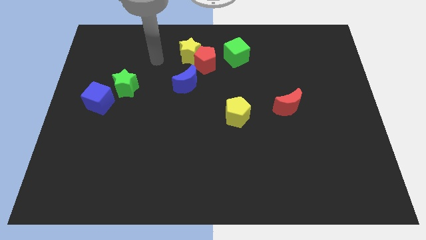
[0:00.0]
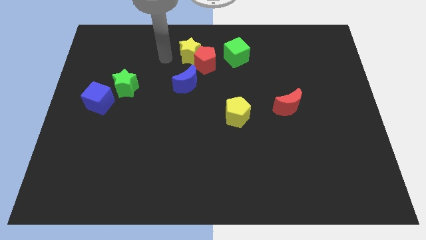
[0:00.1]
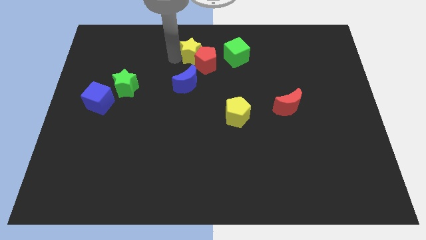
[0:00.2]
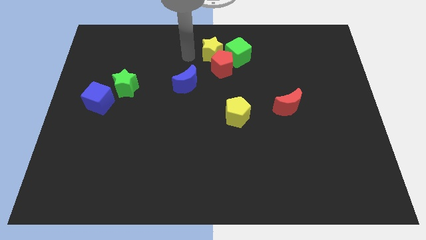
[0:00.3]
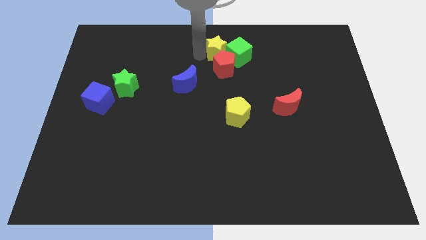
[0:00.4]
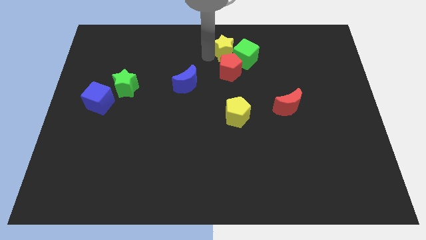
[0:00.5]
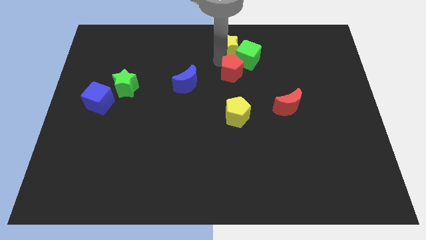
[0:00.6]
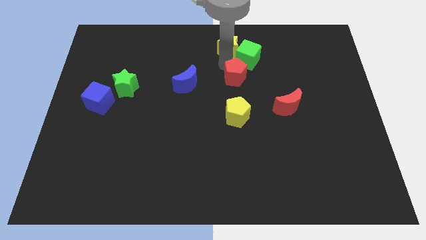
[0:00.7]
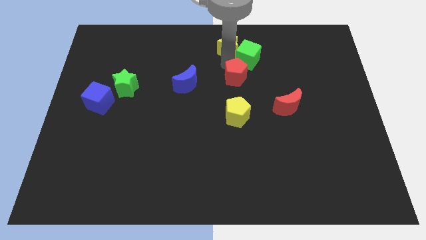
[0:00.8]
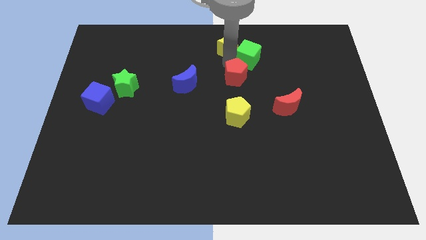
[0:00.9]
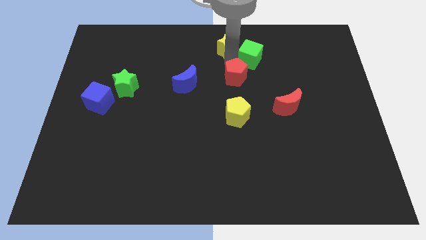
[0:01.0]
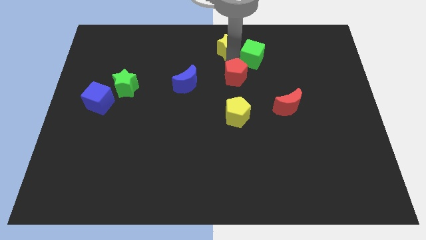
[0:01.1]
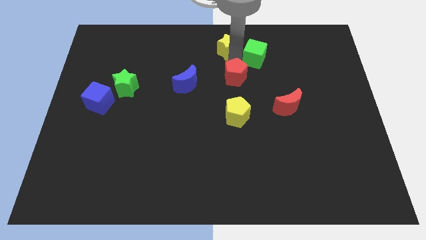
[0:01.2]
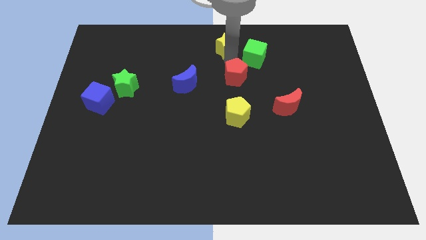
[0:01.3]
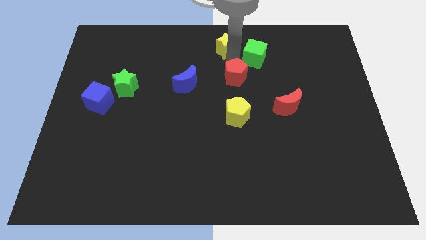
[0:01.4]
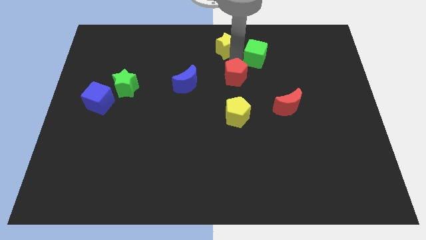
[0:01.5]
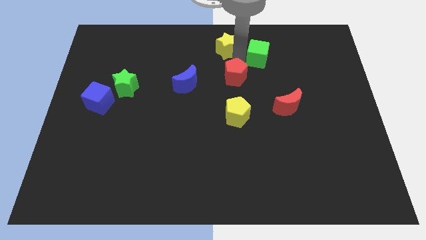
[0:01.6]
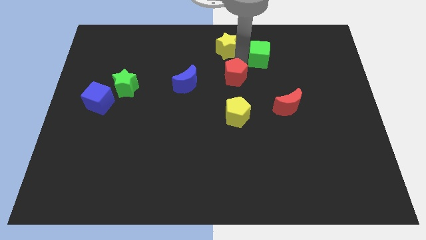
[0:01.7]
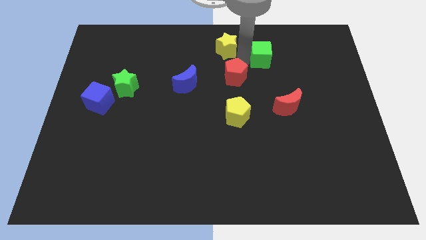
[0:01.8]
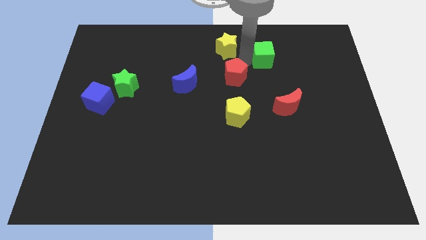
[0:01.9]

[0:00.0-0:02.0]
push the green cube slightly to the right

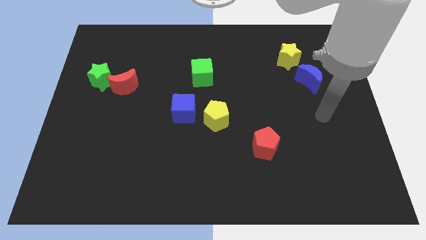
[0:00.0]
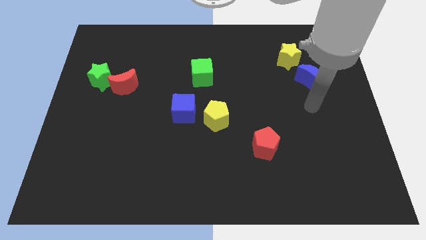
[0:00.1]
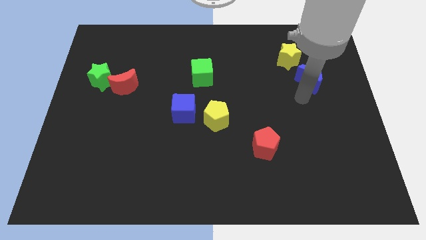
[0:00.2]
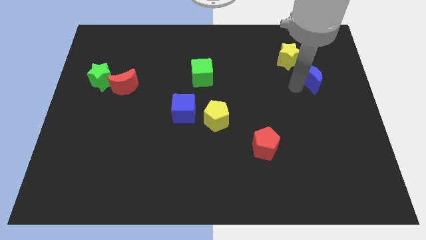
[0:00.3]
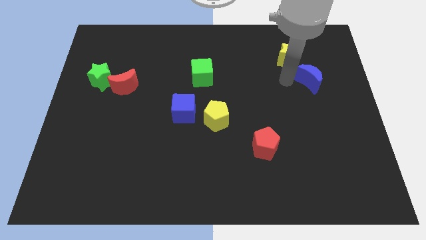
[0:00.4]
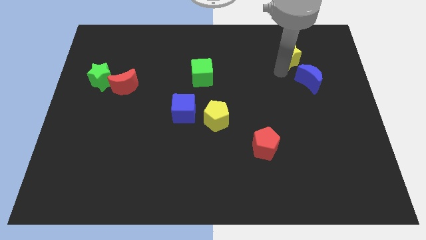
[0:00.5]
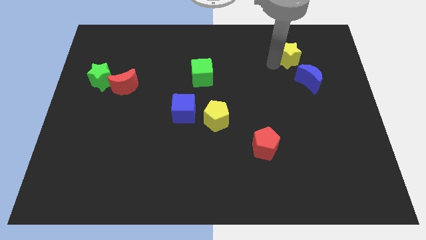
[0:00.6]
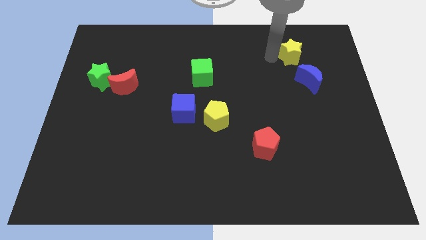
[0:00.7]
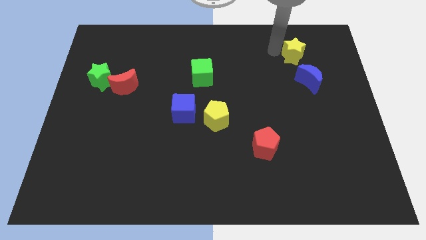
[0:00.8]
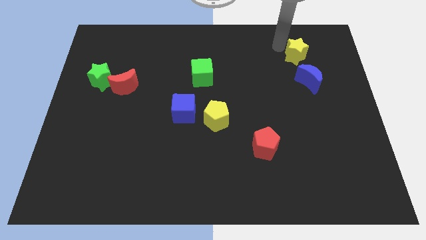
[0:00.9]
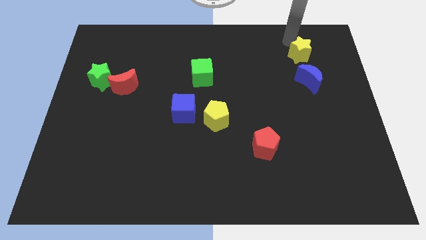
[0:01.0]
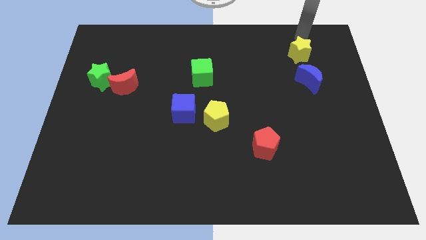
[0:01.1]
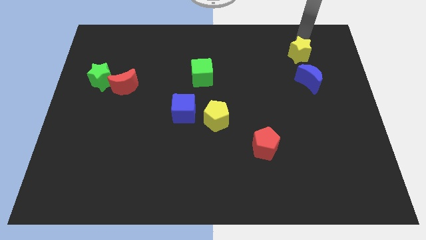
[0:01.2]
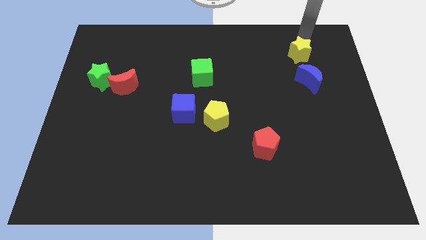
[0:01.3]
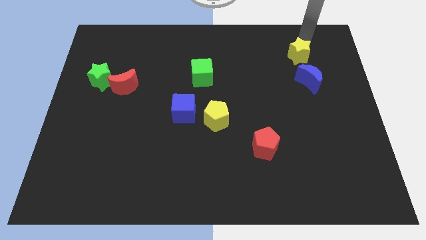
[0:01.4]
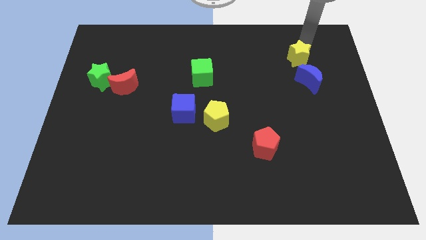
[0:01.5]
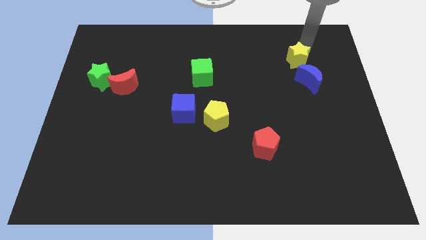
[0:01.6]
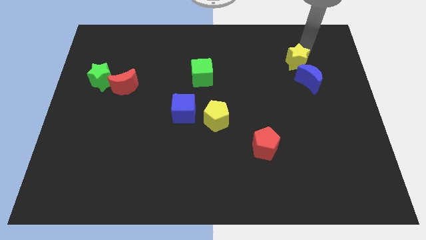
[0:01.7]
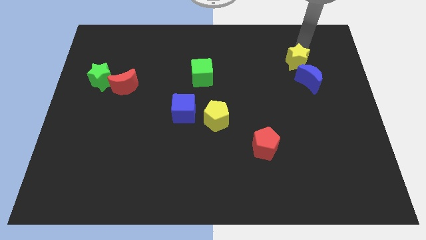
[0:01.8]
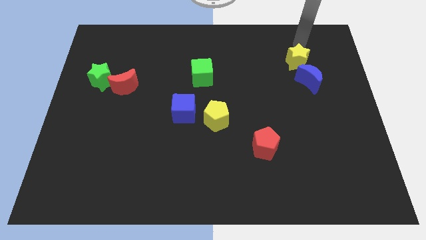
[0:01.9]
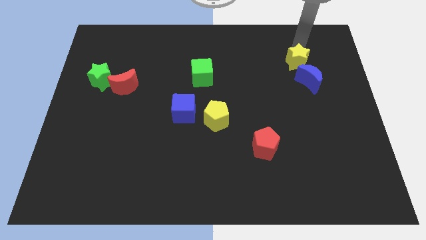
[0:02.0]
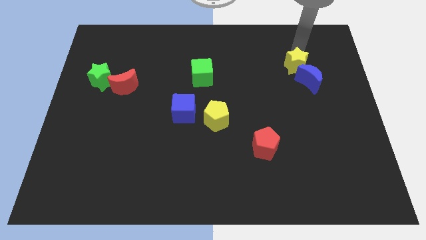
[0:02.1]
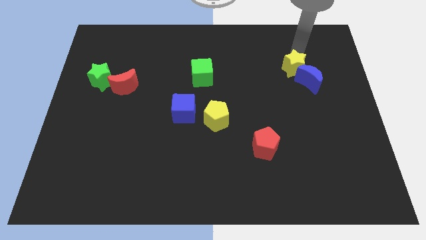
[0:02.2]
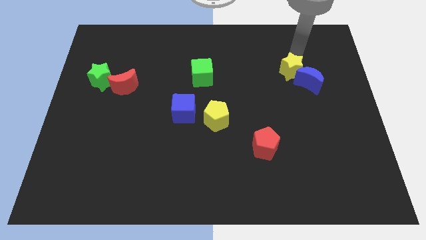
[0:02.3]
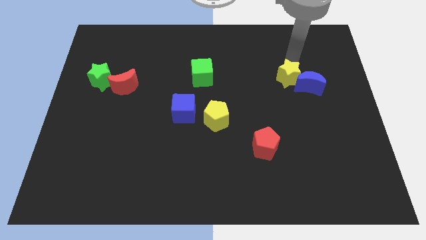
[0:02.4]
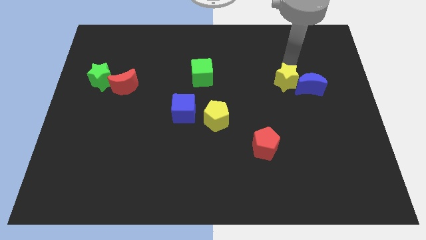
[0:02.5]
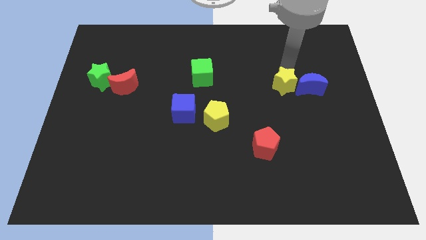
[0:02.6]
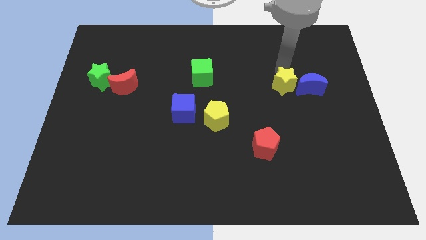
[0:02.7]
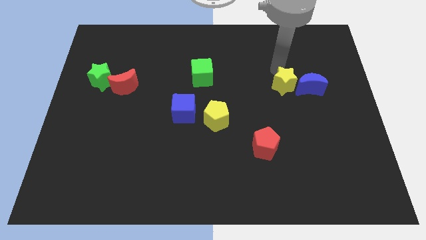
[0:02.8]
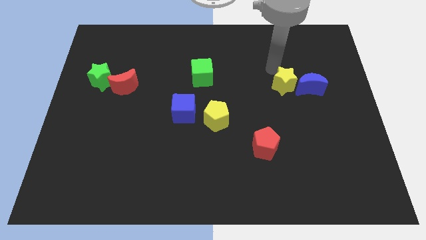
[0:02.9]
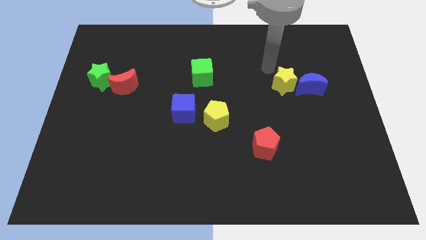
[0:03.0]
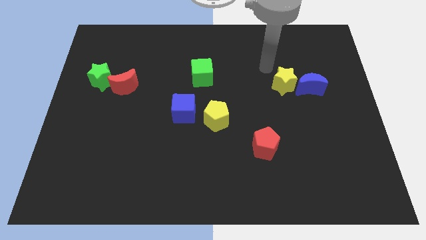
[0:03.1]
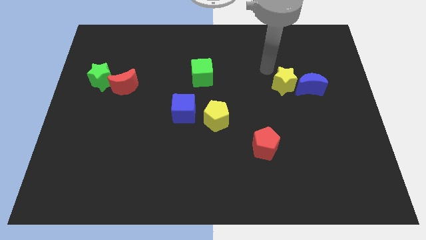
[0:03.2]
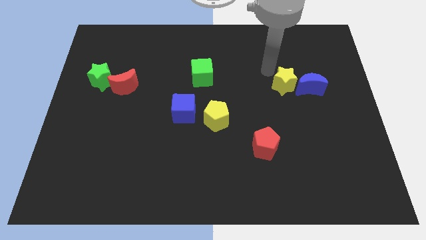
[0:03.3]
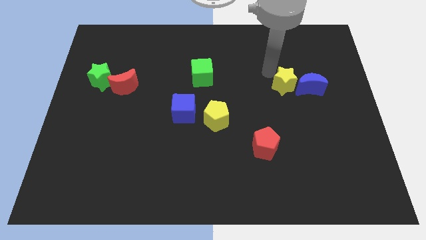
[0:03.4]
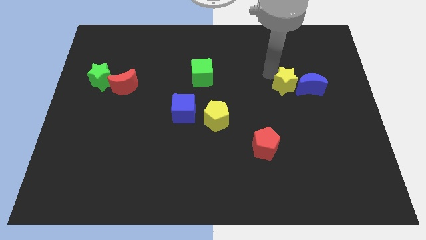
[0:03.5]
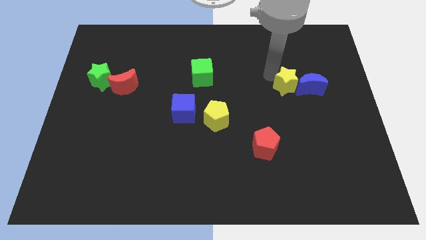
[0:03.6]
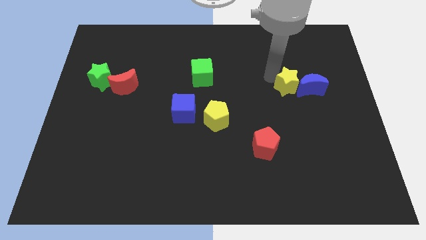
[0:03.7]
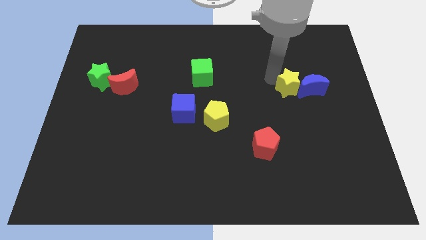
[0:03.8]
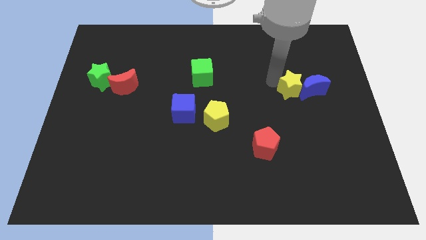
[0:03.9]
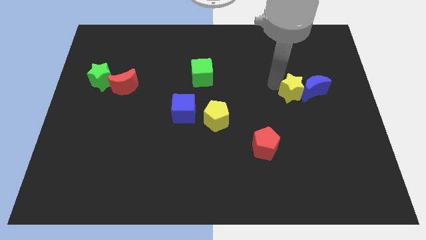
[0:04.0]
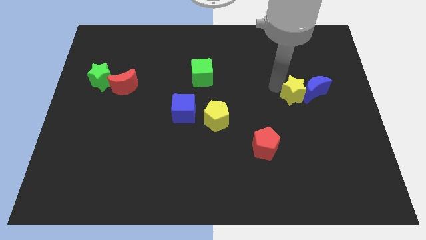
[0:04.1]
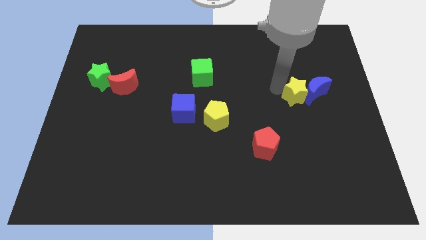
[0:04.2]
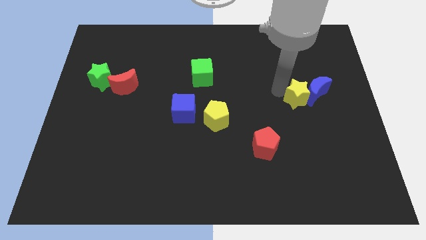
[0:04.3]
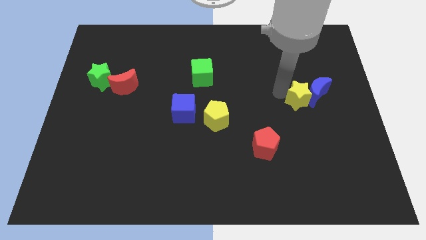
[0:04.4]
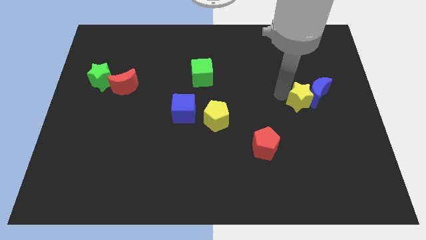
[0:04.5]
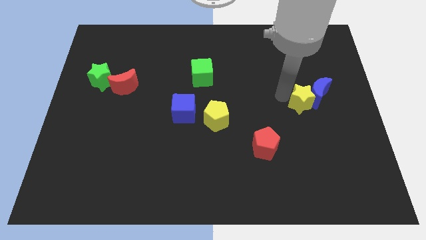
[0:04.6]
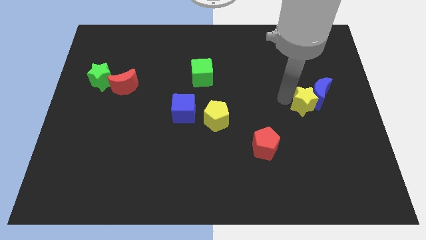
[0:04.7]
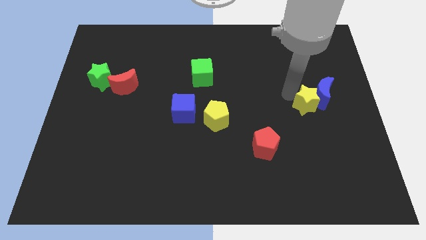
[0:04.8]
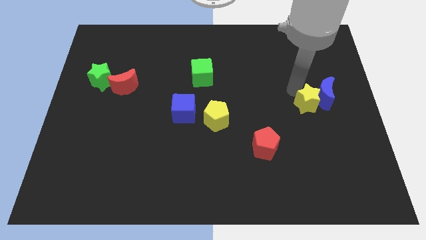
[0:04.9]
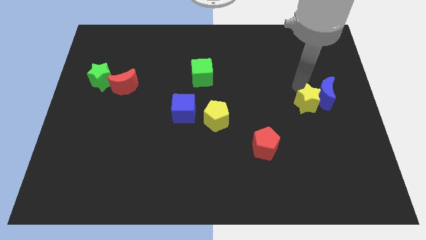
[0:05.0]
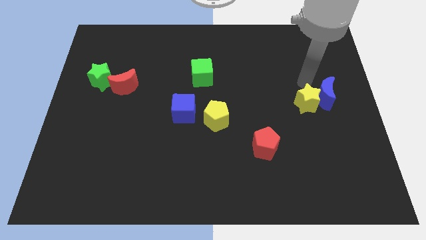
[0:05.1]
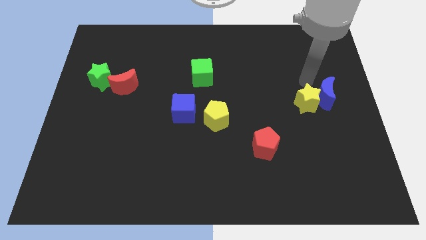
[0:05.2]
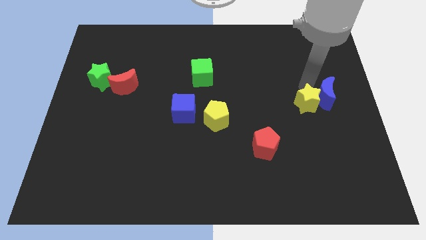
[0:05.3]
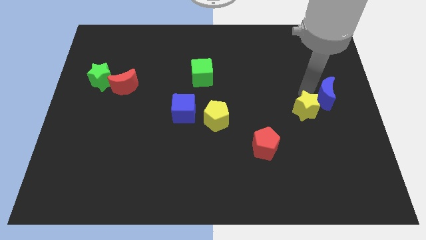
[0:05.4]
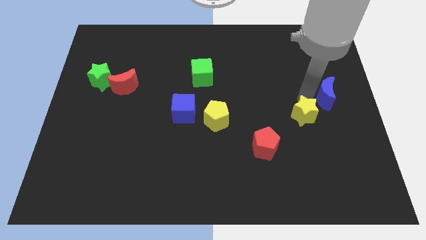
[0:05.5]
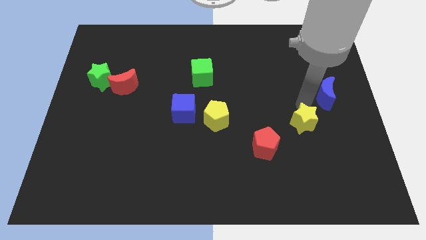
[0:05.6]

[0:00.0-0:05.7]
push the yellow star down

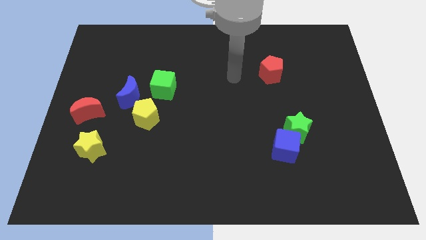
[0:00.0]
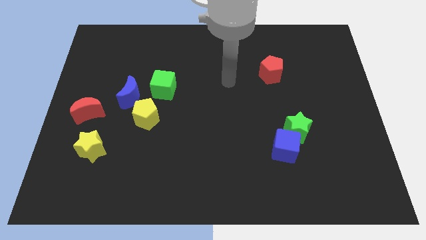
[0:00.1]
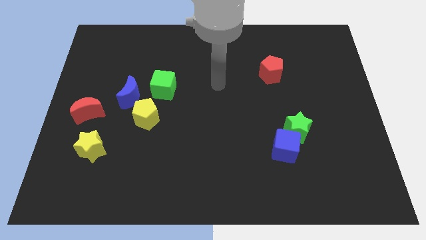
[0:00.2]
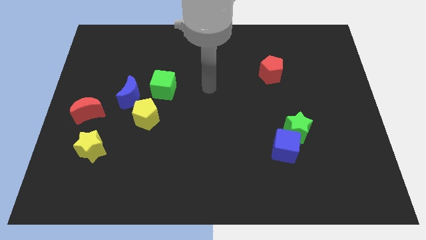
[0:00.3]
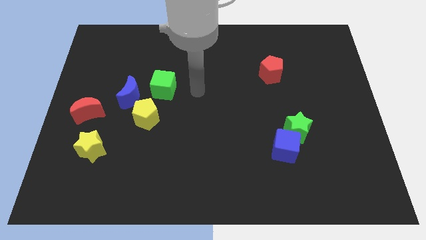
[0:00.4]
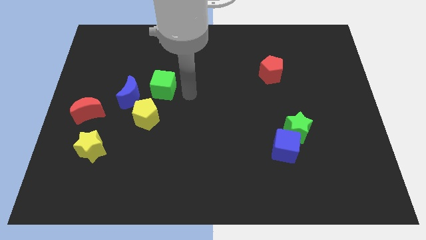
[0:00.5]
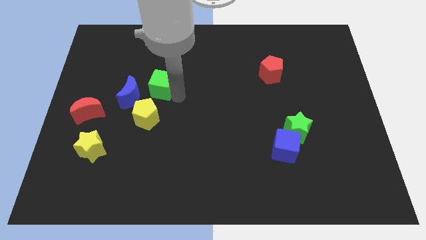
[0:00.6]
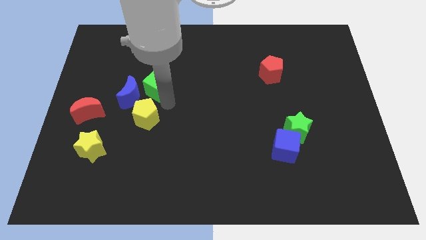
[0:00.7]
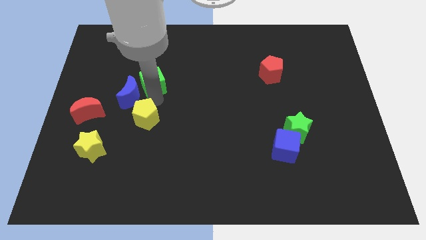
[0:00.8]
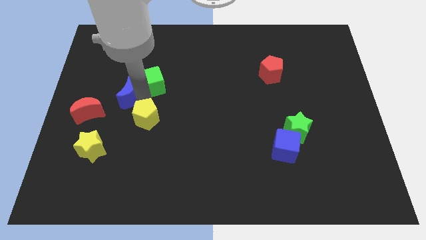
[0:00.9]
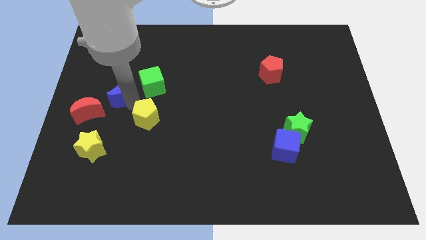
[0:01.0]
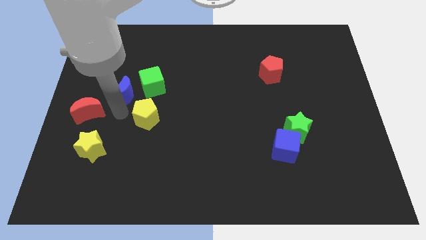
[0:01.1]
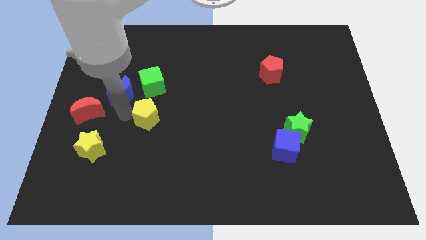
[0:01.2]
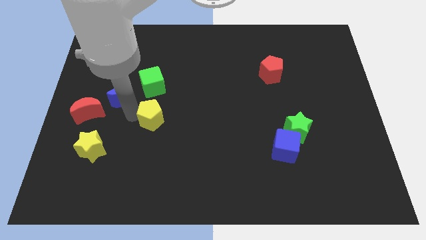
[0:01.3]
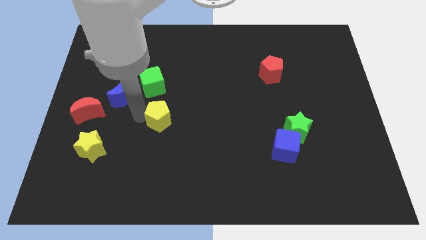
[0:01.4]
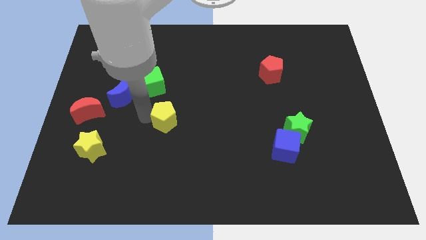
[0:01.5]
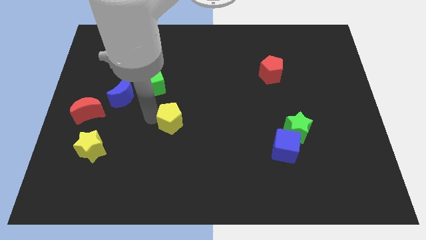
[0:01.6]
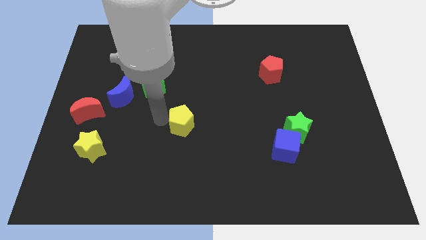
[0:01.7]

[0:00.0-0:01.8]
slide the yellow pentagon to the right somewhat
